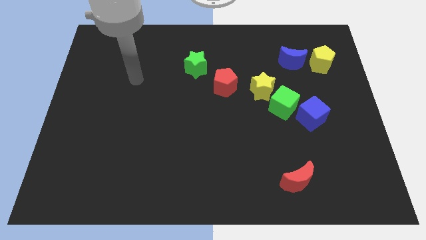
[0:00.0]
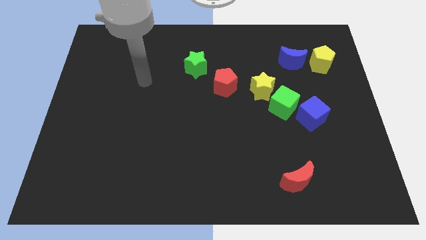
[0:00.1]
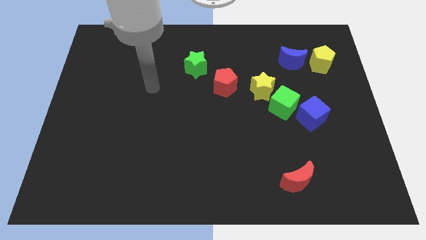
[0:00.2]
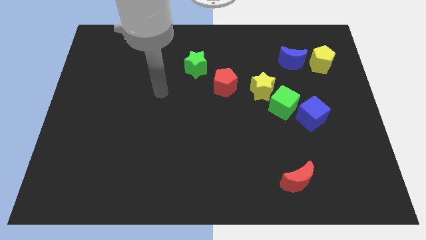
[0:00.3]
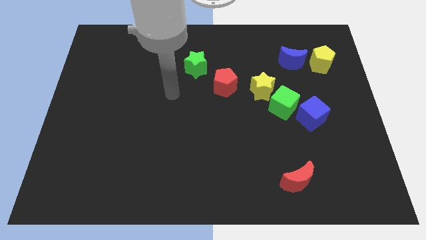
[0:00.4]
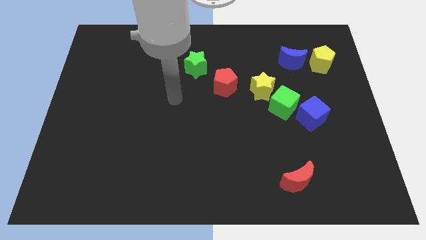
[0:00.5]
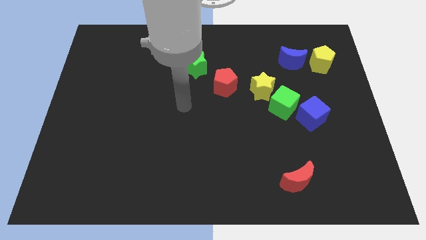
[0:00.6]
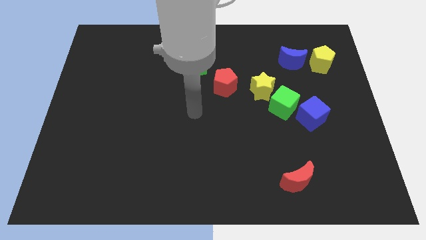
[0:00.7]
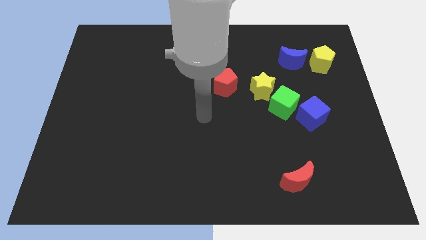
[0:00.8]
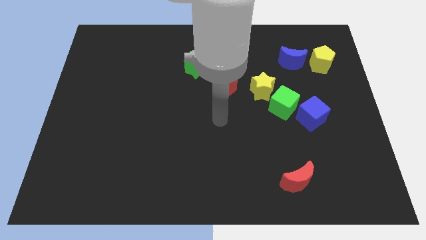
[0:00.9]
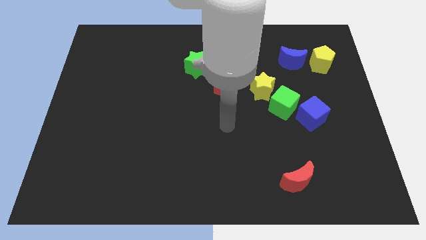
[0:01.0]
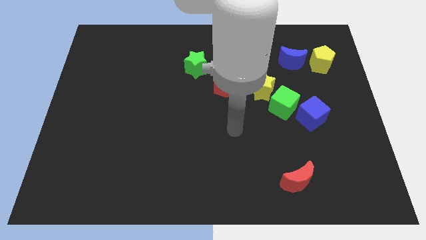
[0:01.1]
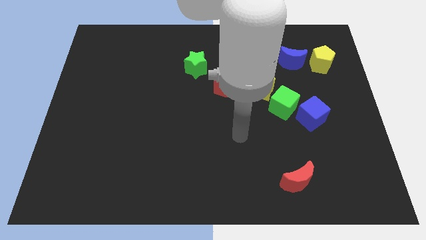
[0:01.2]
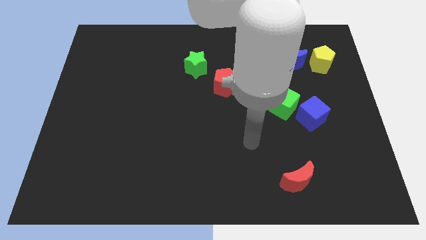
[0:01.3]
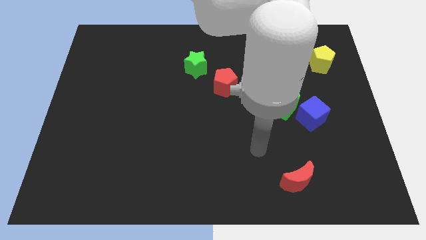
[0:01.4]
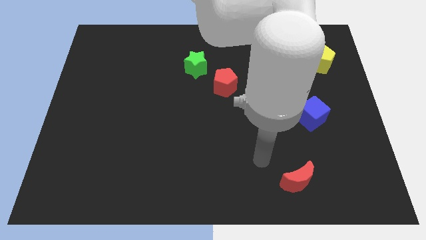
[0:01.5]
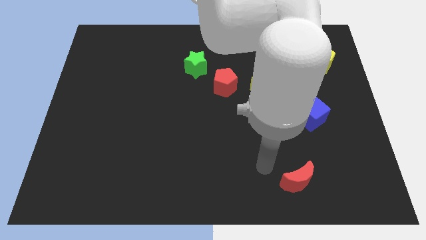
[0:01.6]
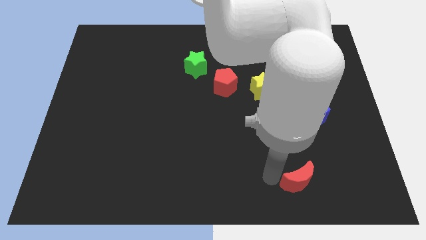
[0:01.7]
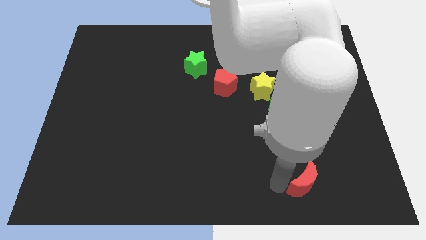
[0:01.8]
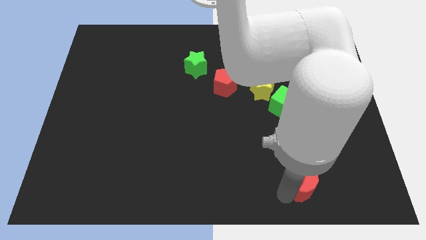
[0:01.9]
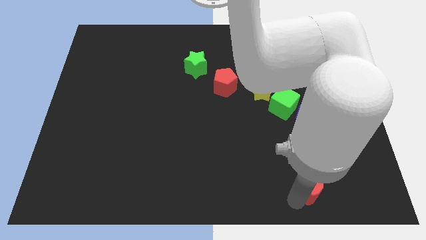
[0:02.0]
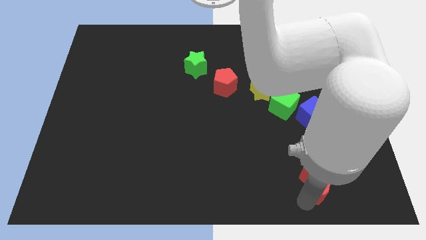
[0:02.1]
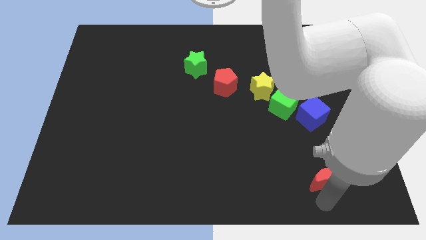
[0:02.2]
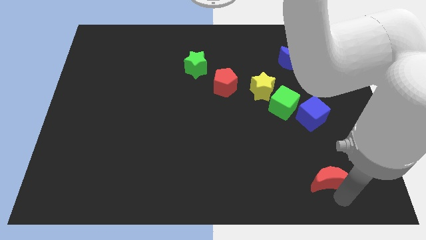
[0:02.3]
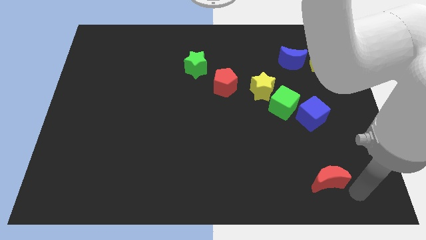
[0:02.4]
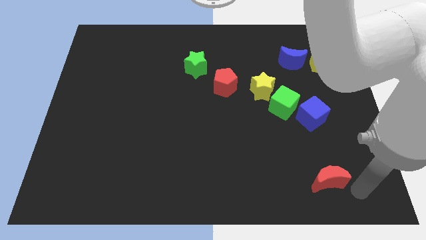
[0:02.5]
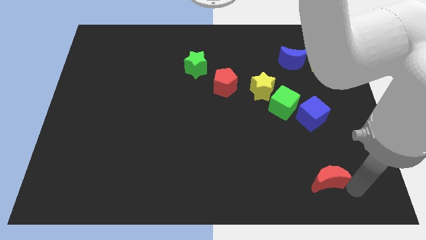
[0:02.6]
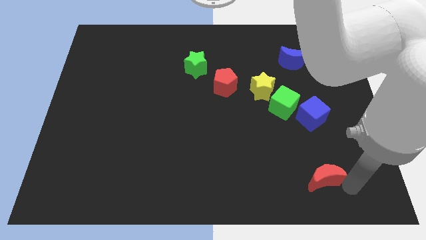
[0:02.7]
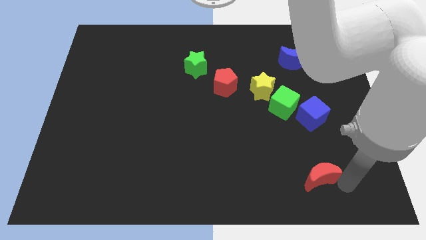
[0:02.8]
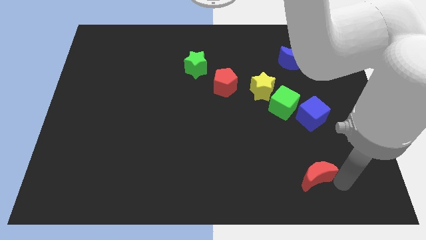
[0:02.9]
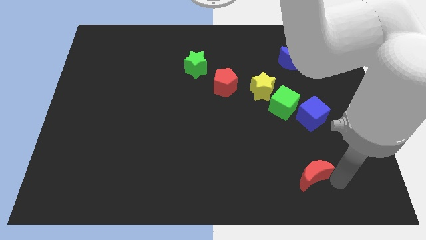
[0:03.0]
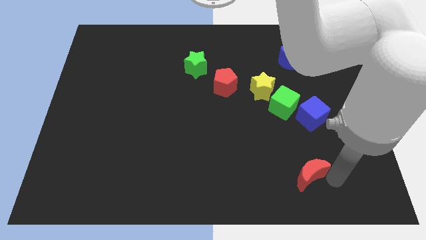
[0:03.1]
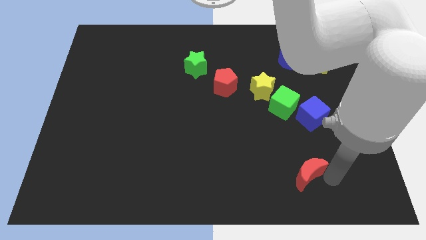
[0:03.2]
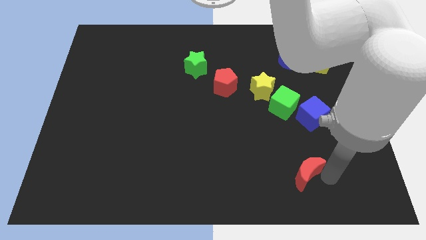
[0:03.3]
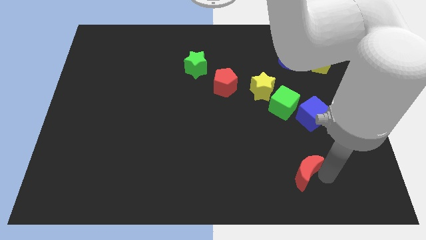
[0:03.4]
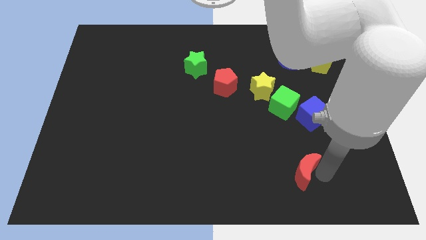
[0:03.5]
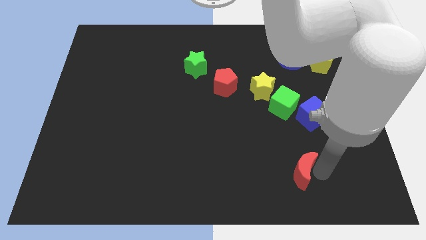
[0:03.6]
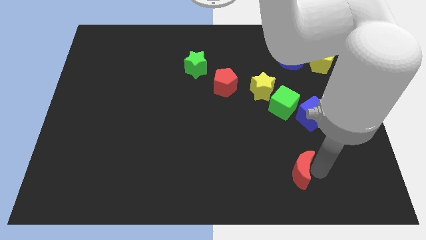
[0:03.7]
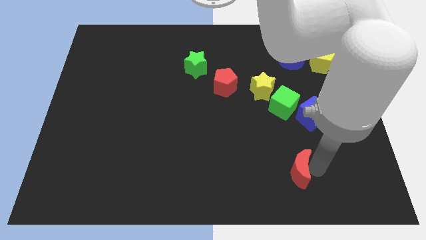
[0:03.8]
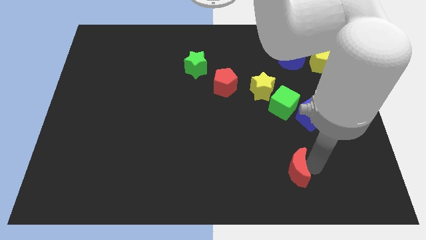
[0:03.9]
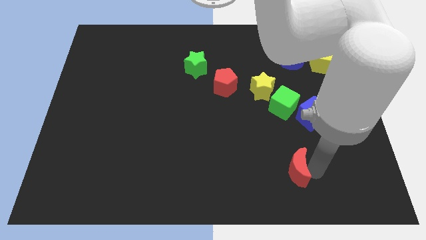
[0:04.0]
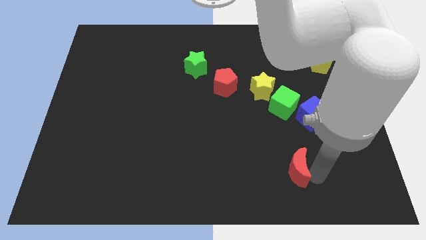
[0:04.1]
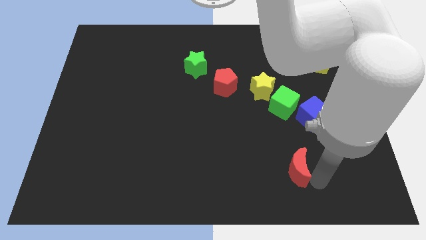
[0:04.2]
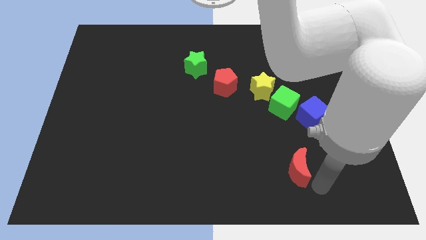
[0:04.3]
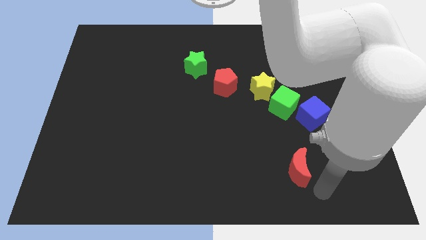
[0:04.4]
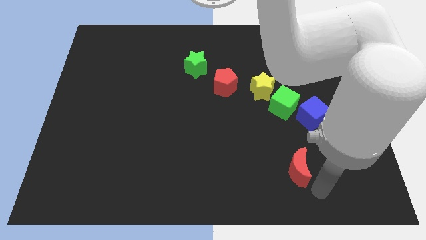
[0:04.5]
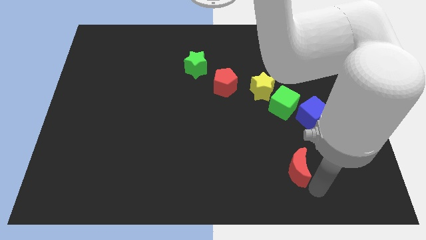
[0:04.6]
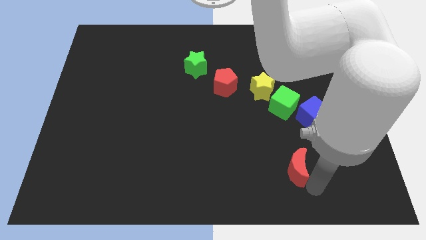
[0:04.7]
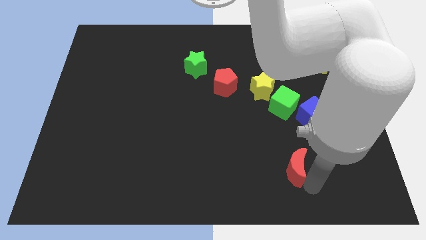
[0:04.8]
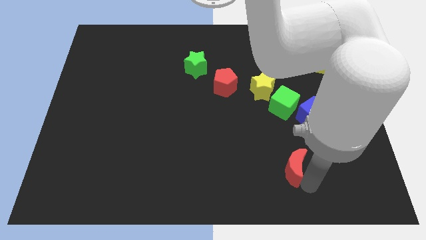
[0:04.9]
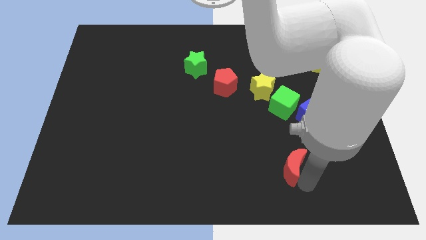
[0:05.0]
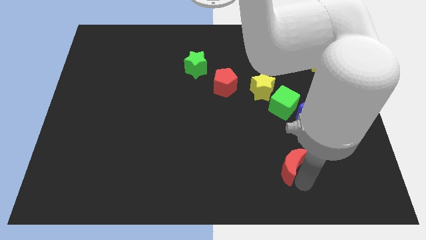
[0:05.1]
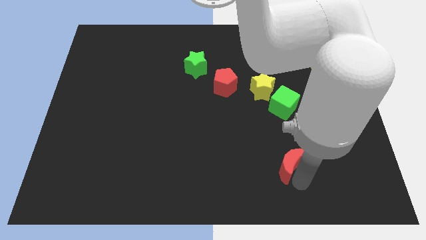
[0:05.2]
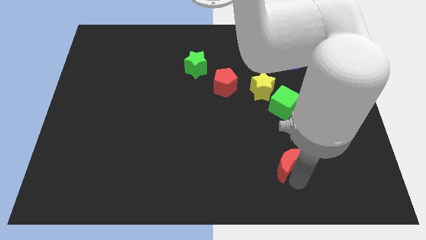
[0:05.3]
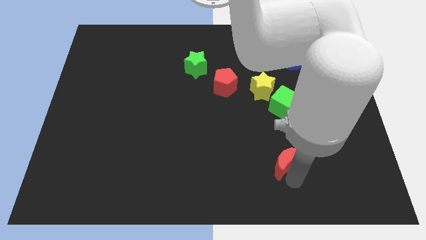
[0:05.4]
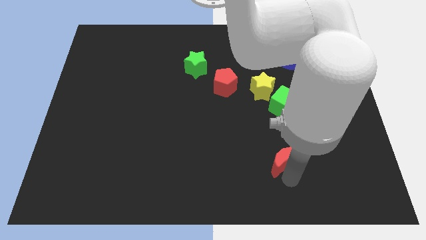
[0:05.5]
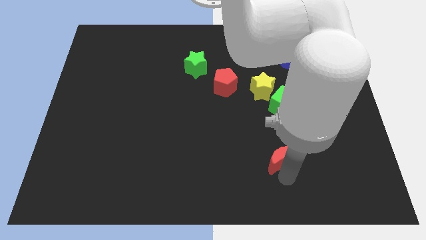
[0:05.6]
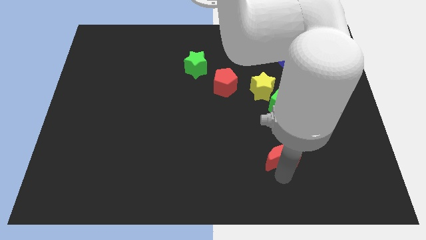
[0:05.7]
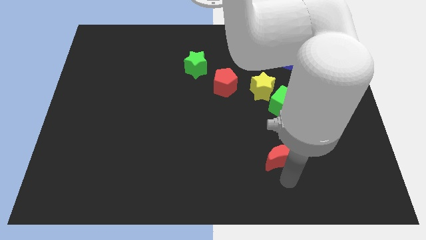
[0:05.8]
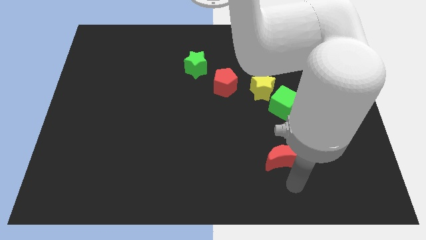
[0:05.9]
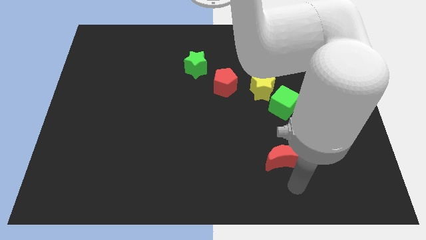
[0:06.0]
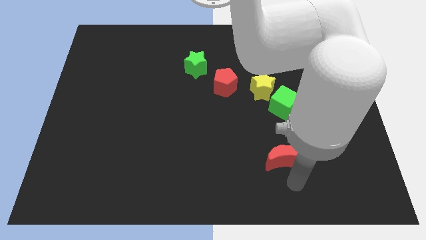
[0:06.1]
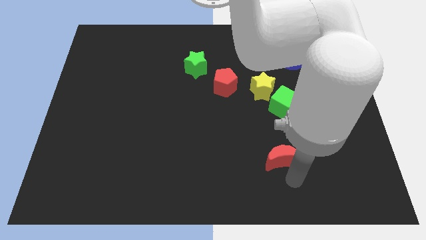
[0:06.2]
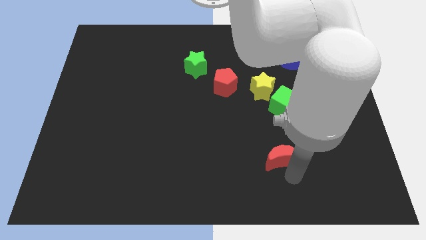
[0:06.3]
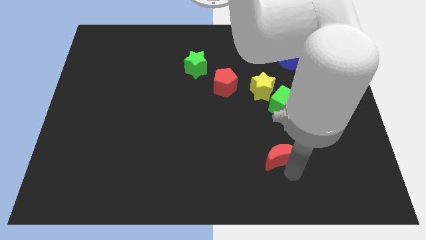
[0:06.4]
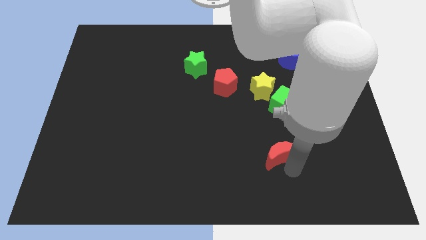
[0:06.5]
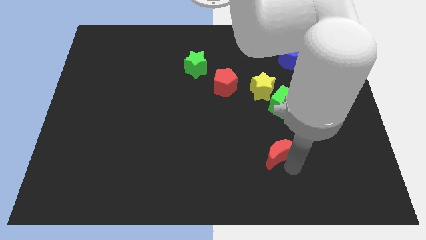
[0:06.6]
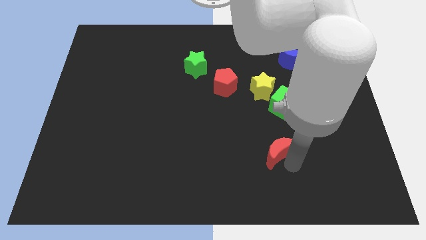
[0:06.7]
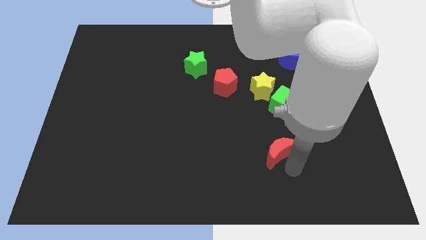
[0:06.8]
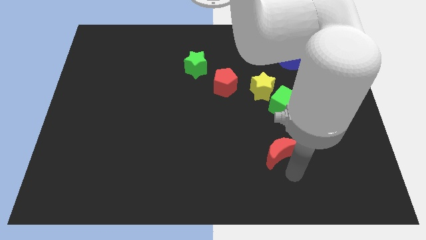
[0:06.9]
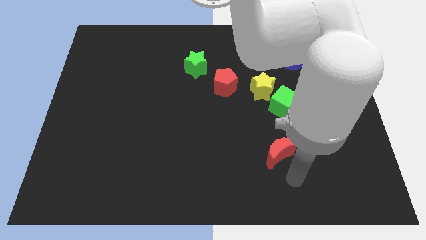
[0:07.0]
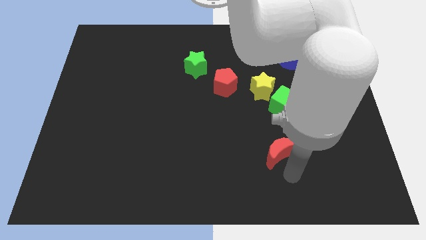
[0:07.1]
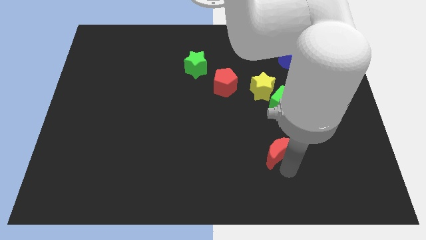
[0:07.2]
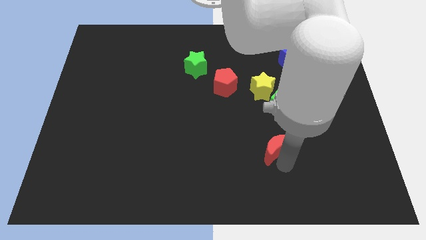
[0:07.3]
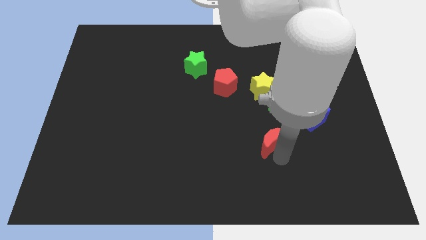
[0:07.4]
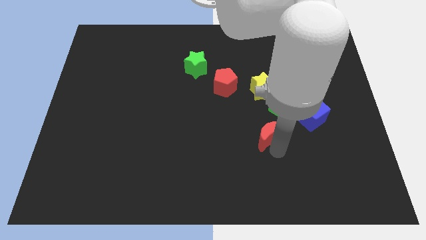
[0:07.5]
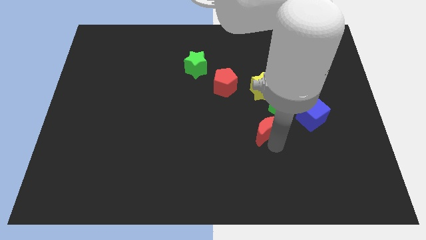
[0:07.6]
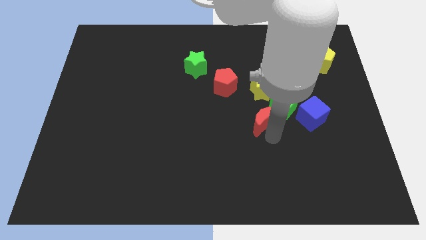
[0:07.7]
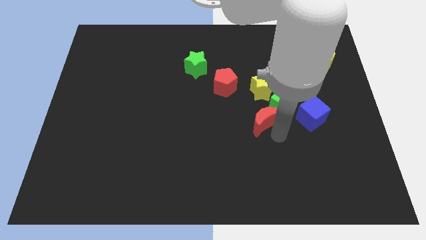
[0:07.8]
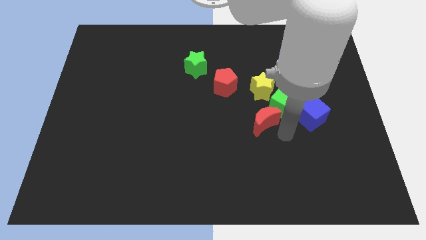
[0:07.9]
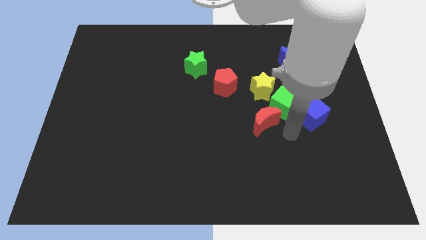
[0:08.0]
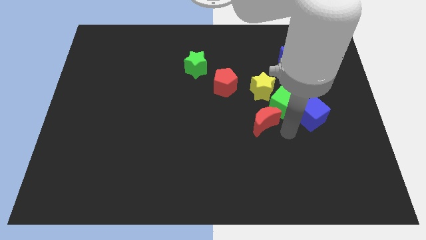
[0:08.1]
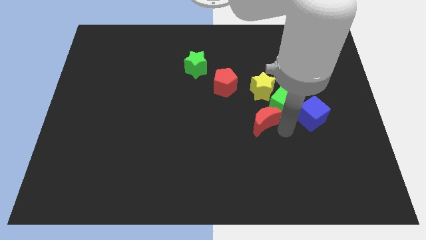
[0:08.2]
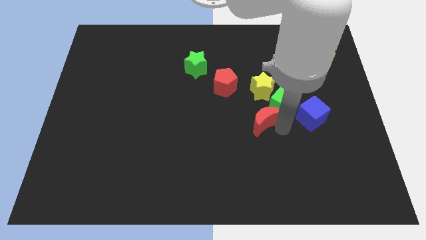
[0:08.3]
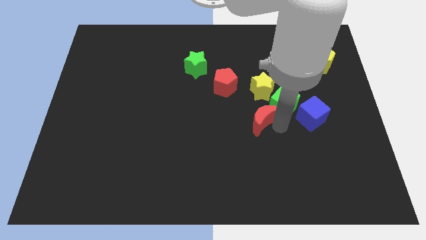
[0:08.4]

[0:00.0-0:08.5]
put the red moon to the middle
